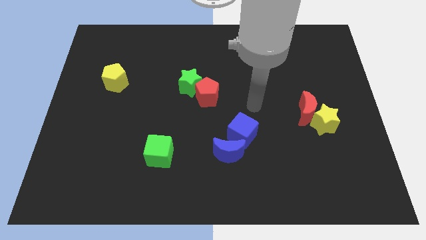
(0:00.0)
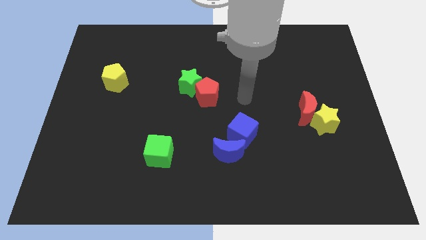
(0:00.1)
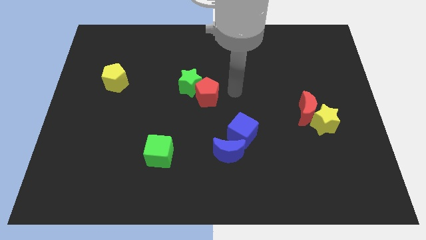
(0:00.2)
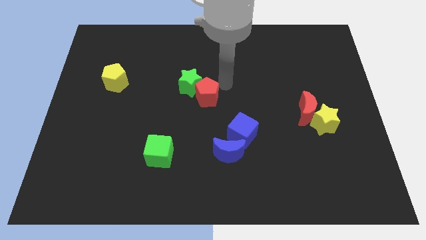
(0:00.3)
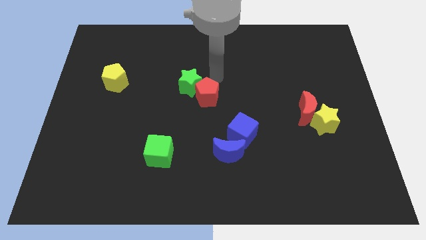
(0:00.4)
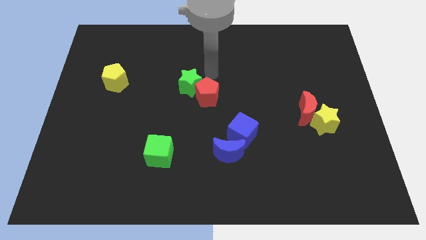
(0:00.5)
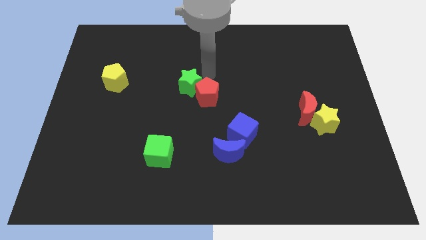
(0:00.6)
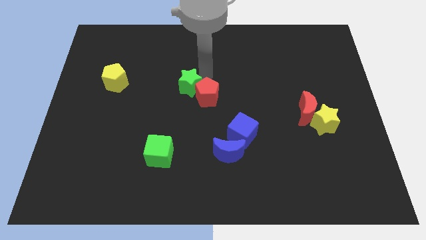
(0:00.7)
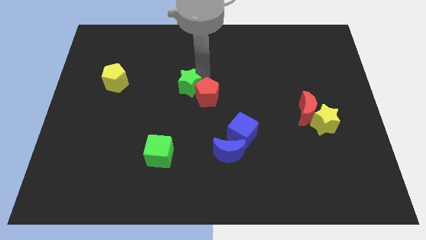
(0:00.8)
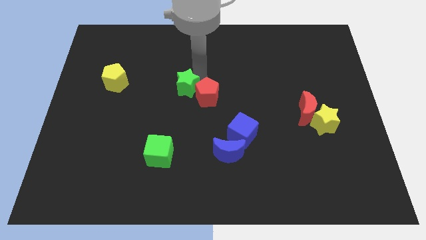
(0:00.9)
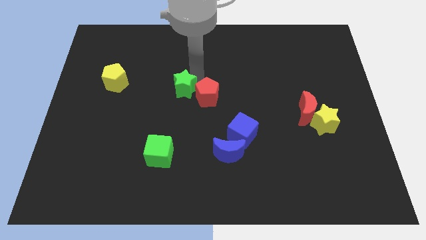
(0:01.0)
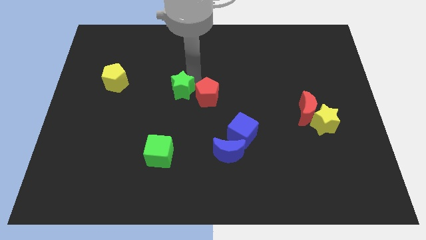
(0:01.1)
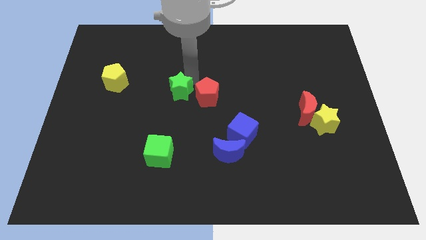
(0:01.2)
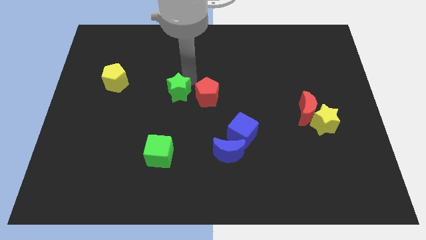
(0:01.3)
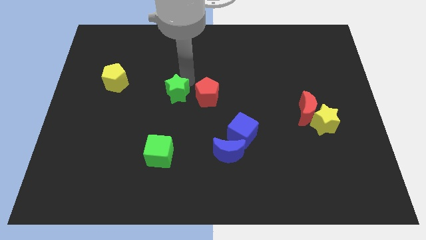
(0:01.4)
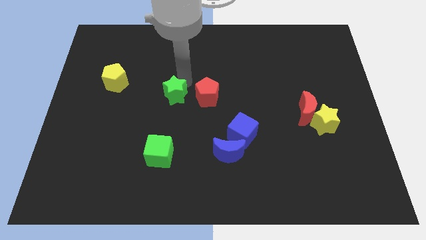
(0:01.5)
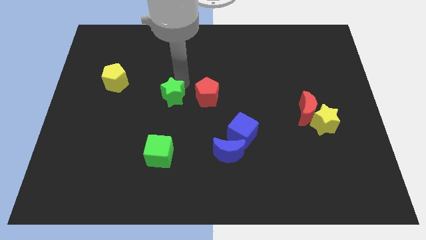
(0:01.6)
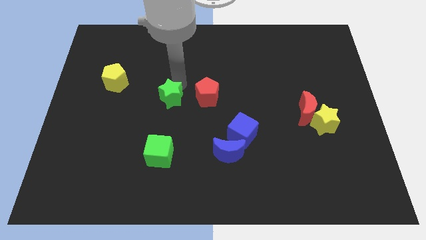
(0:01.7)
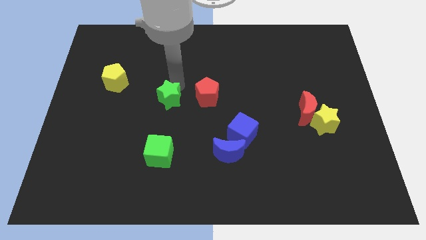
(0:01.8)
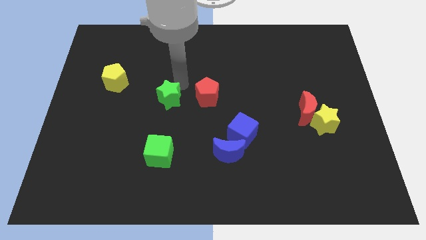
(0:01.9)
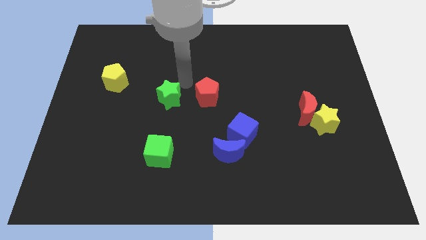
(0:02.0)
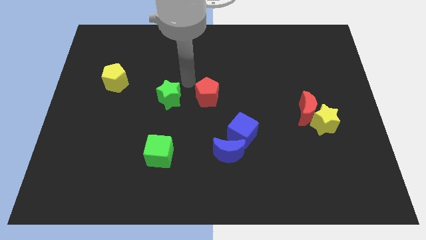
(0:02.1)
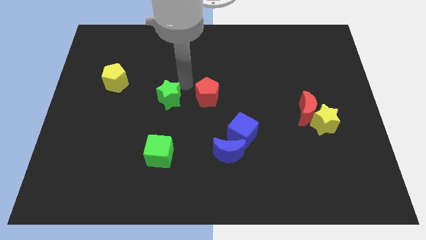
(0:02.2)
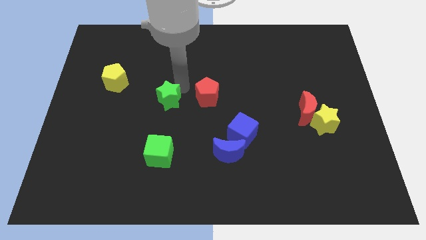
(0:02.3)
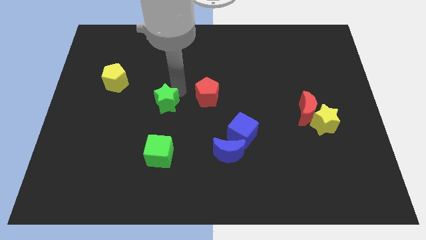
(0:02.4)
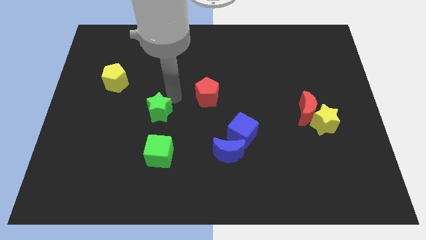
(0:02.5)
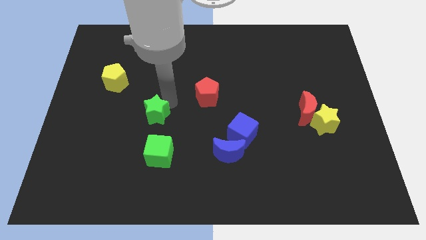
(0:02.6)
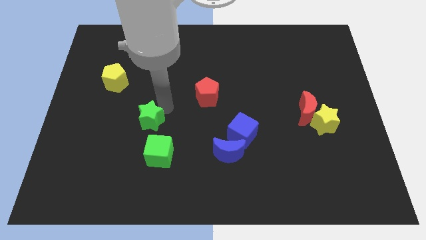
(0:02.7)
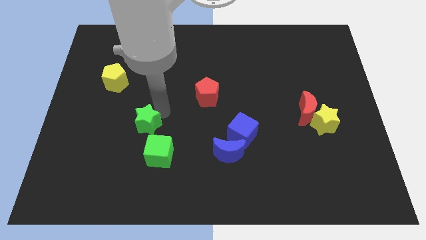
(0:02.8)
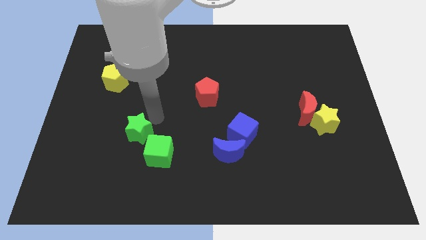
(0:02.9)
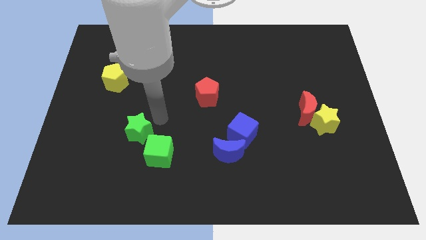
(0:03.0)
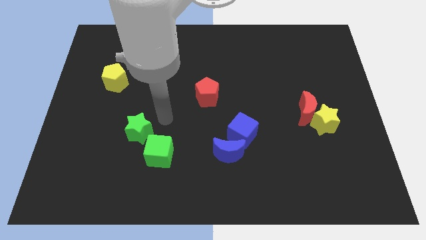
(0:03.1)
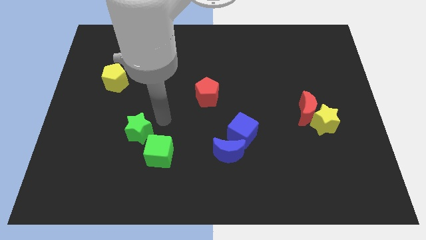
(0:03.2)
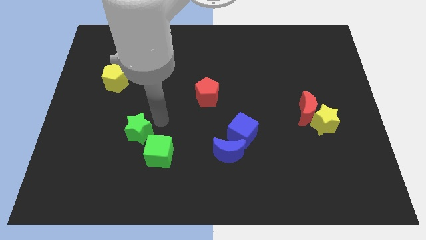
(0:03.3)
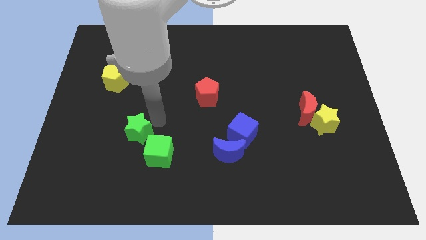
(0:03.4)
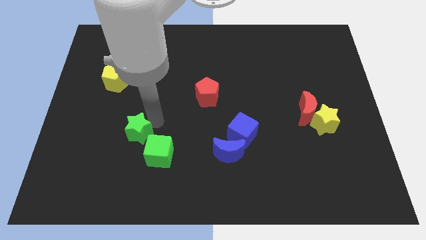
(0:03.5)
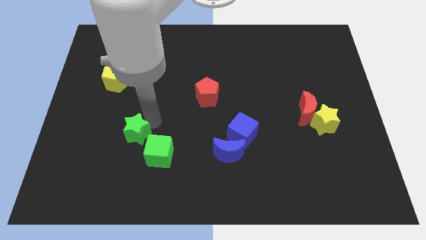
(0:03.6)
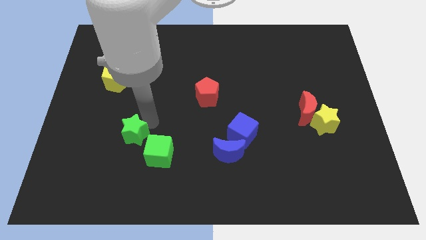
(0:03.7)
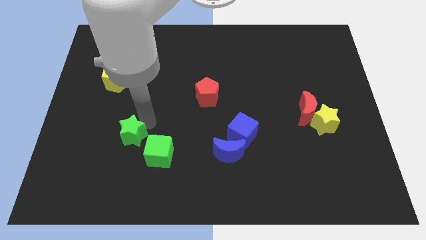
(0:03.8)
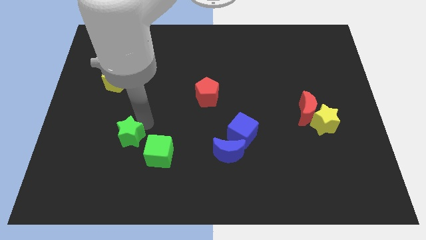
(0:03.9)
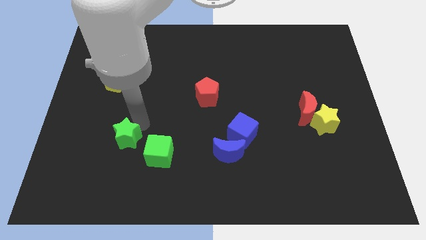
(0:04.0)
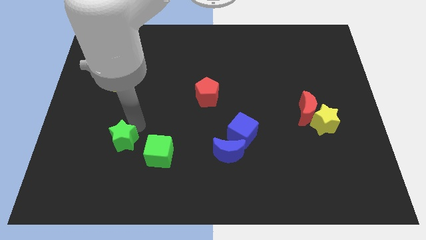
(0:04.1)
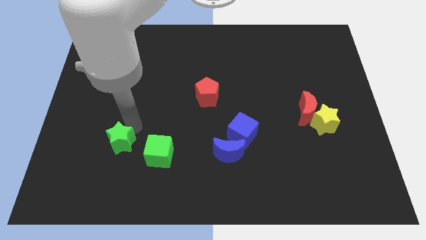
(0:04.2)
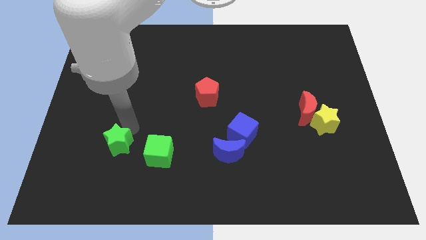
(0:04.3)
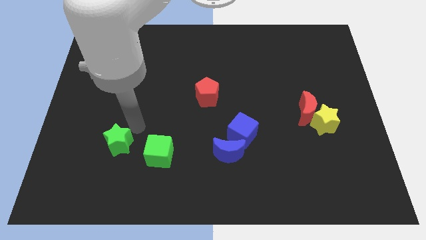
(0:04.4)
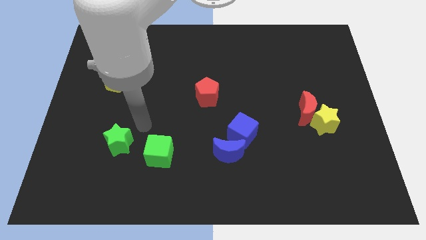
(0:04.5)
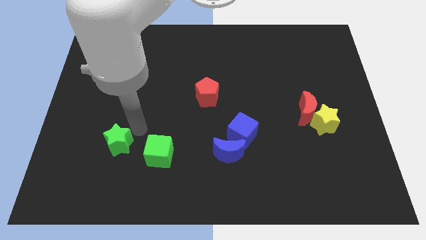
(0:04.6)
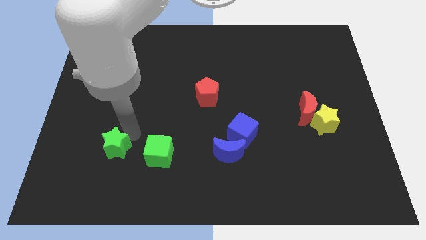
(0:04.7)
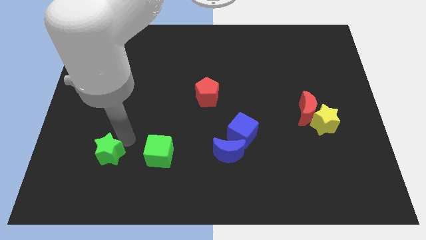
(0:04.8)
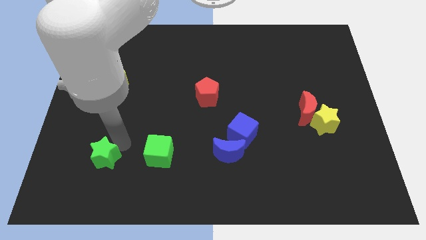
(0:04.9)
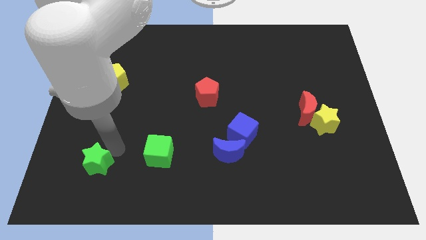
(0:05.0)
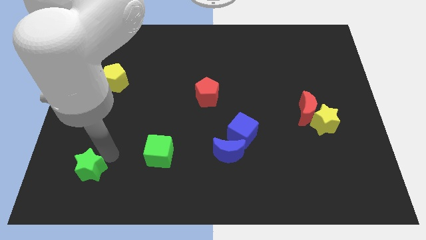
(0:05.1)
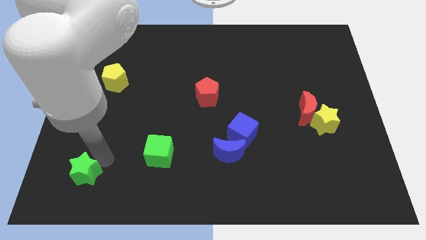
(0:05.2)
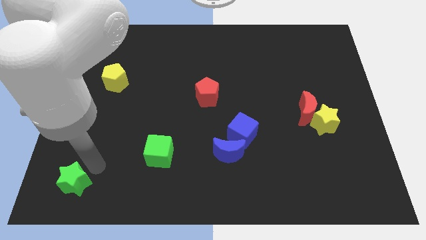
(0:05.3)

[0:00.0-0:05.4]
push the green star to the bottom left corner

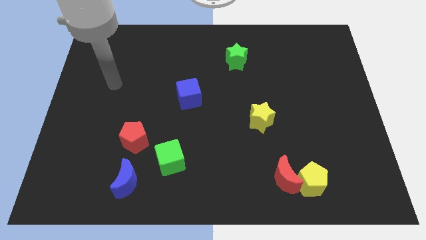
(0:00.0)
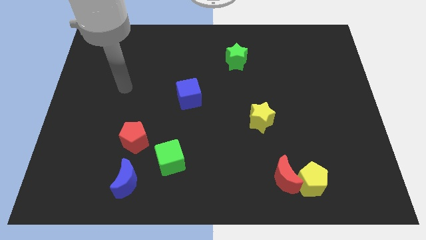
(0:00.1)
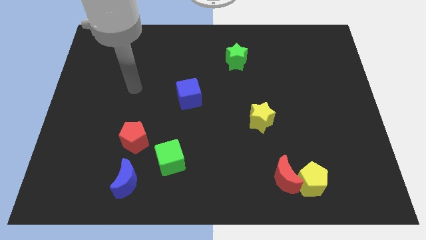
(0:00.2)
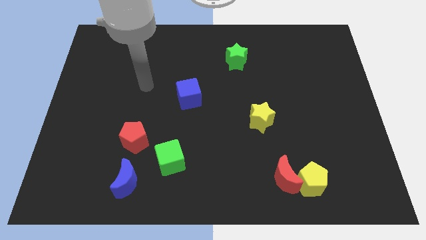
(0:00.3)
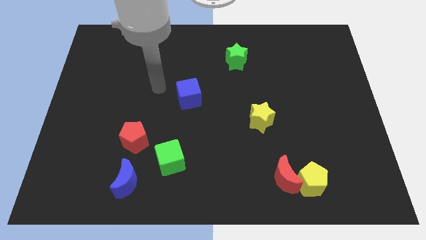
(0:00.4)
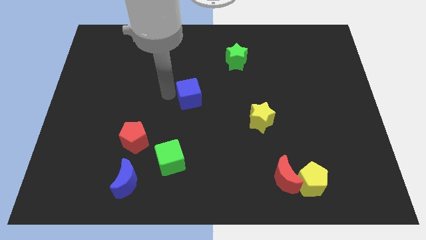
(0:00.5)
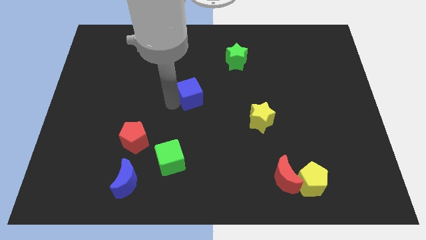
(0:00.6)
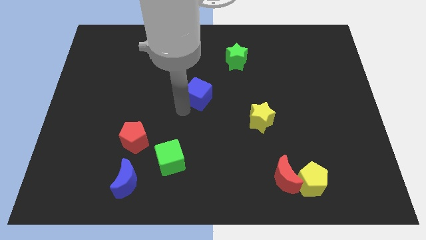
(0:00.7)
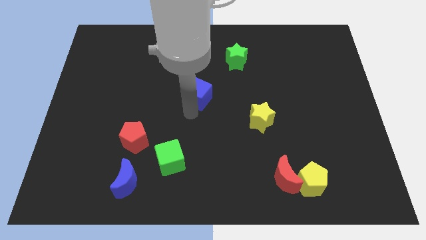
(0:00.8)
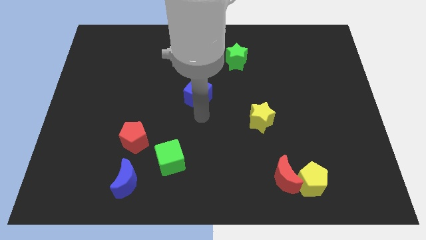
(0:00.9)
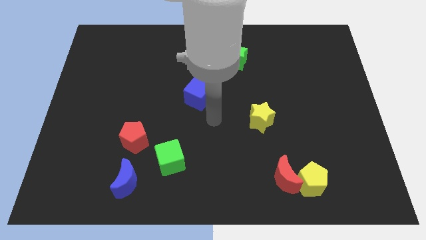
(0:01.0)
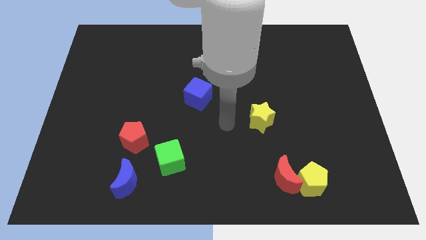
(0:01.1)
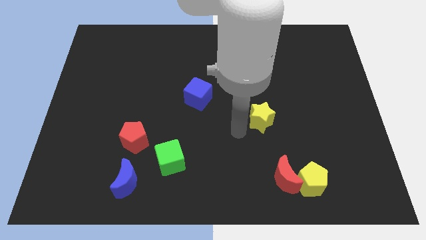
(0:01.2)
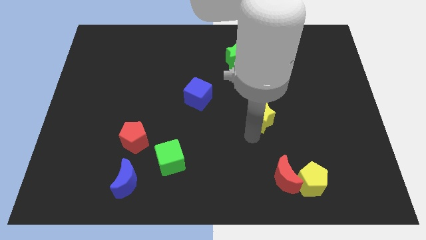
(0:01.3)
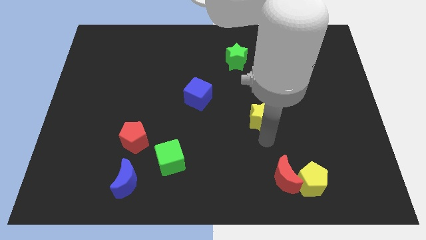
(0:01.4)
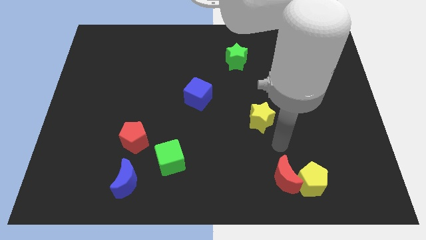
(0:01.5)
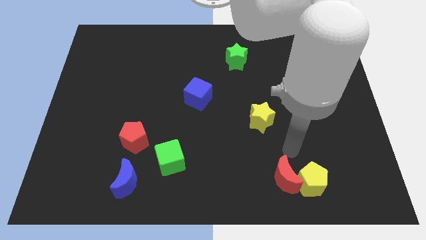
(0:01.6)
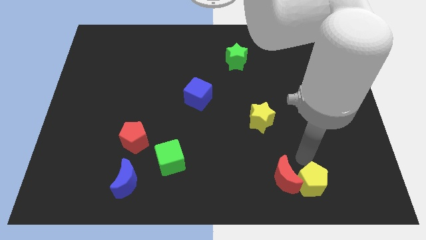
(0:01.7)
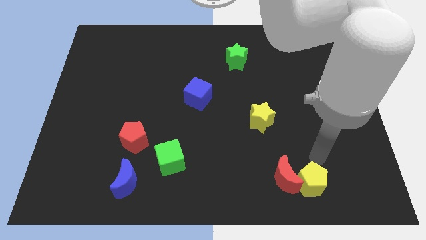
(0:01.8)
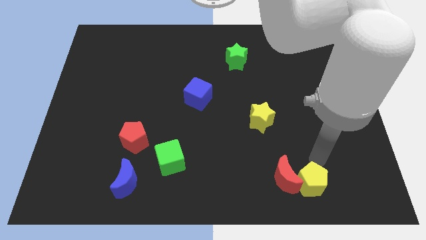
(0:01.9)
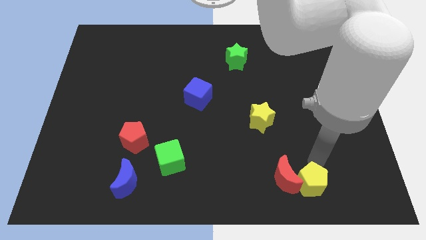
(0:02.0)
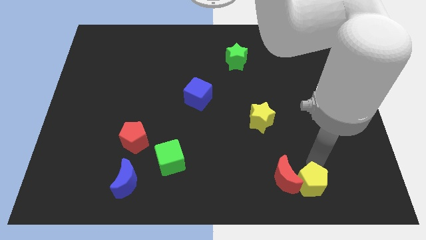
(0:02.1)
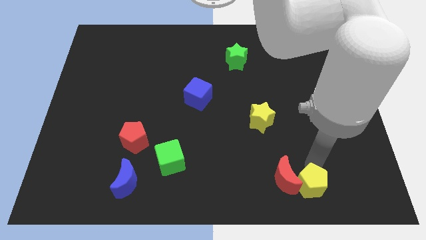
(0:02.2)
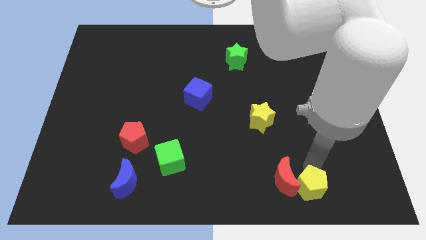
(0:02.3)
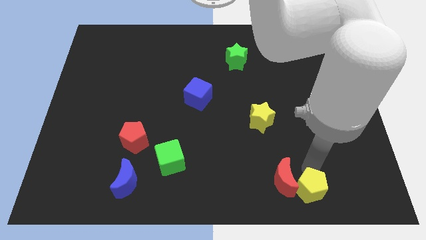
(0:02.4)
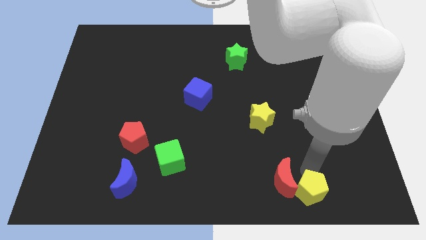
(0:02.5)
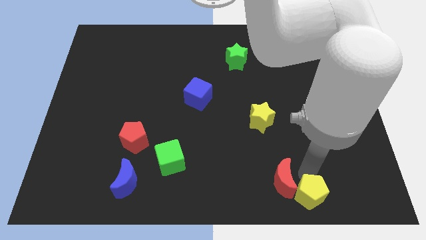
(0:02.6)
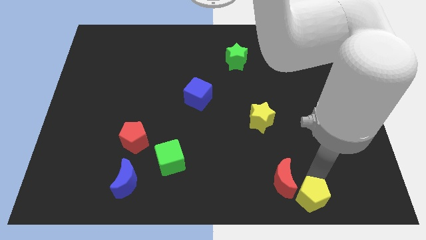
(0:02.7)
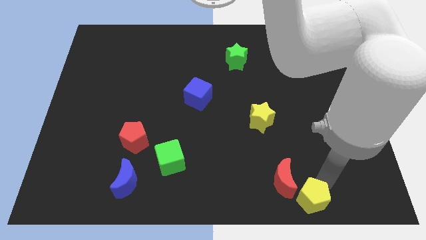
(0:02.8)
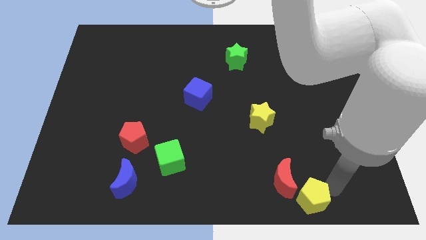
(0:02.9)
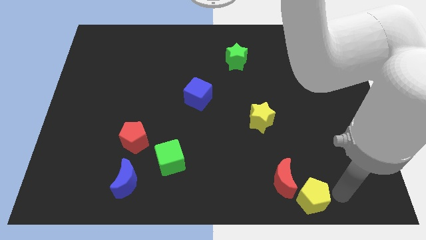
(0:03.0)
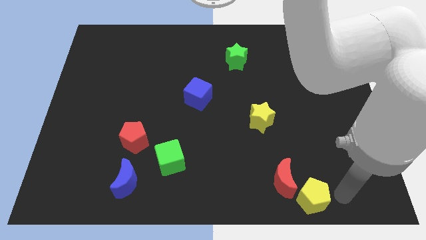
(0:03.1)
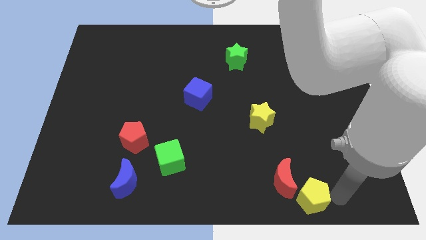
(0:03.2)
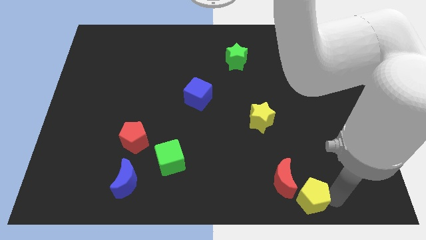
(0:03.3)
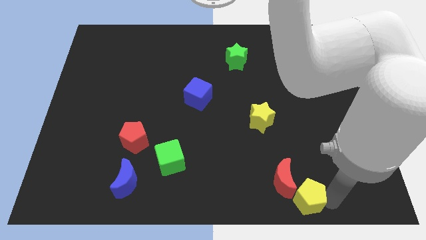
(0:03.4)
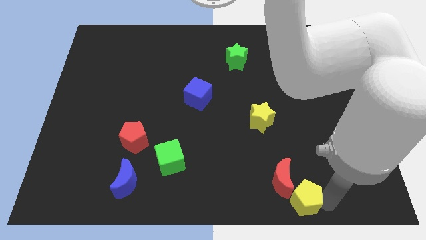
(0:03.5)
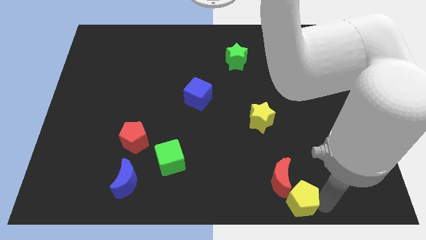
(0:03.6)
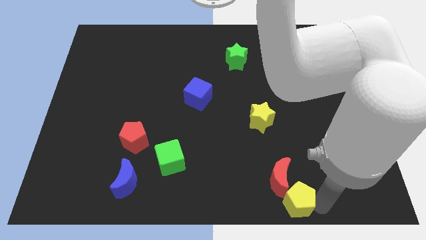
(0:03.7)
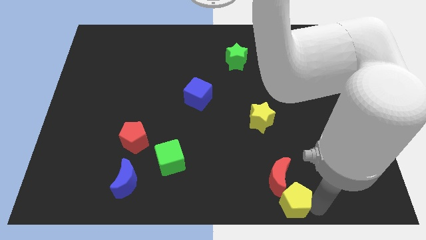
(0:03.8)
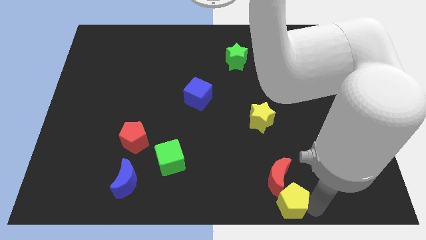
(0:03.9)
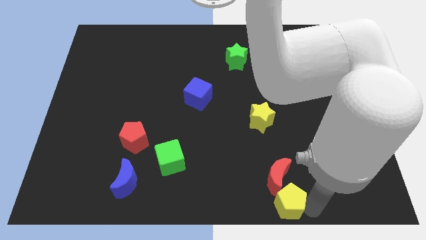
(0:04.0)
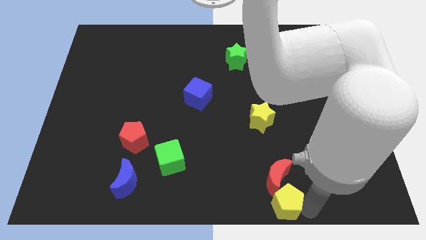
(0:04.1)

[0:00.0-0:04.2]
push the yellow pentagon to the bottom side
